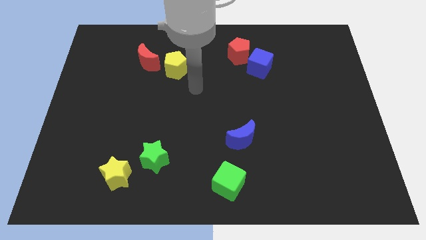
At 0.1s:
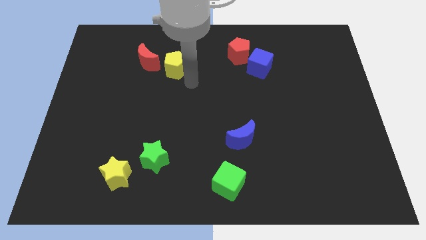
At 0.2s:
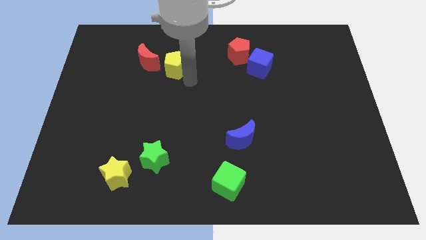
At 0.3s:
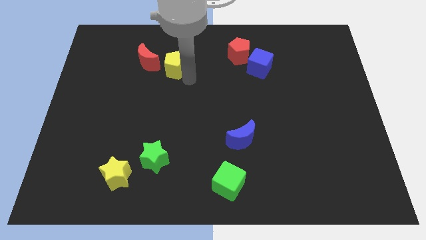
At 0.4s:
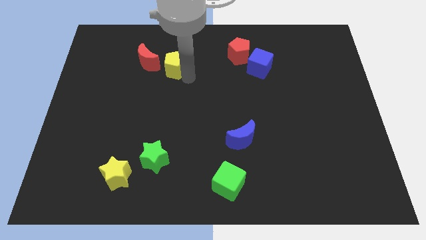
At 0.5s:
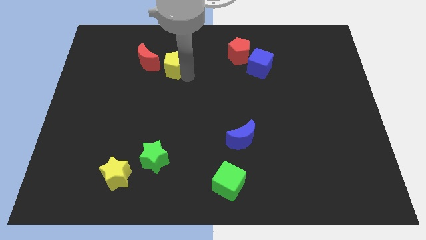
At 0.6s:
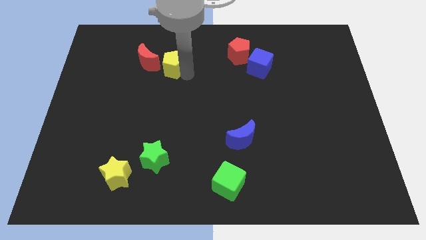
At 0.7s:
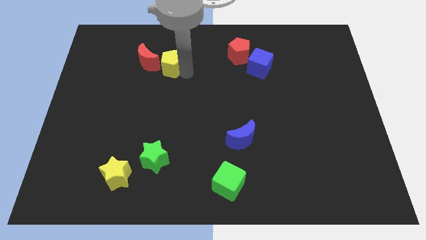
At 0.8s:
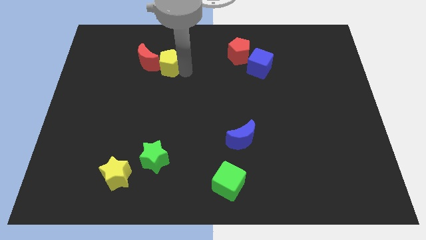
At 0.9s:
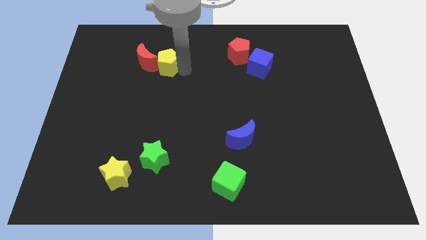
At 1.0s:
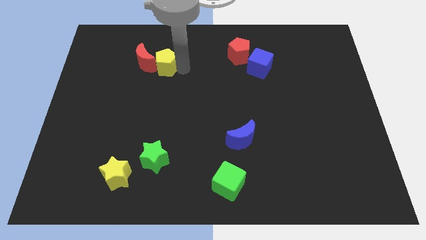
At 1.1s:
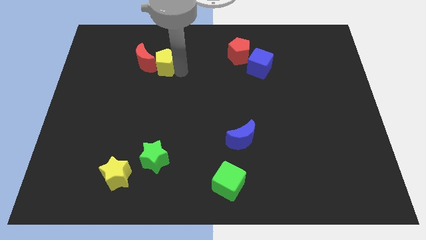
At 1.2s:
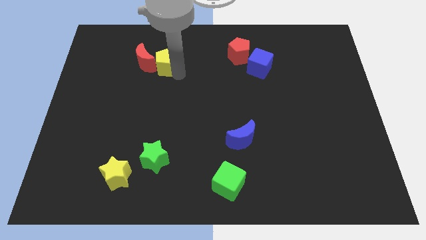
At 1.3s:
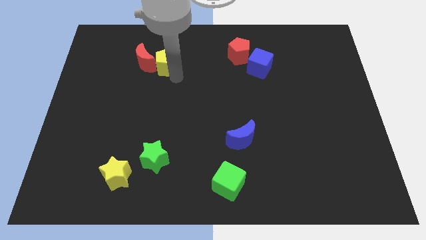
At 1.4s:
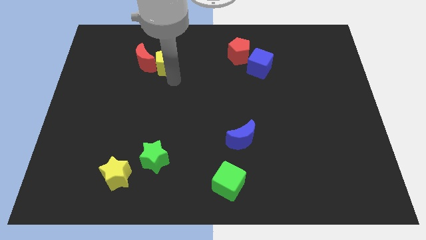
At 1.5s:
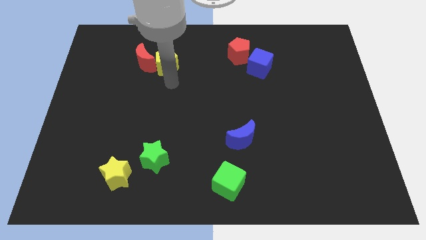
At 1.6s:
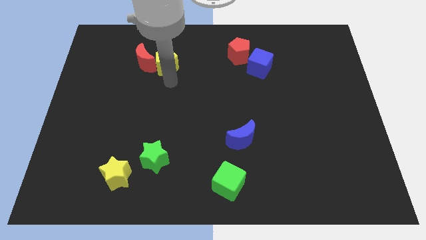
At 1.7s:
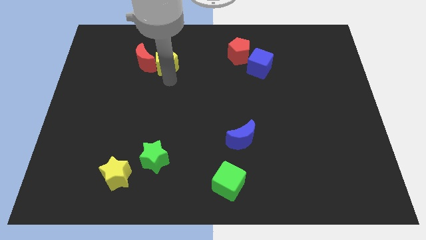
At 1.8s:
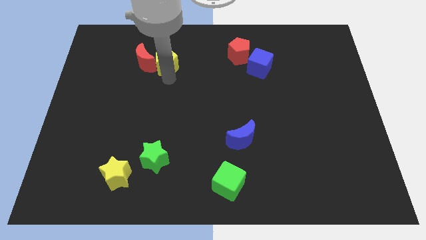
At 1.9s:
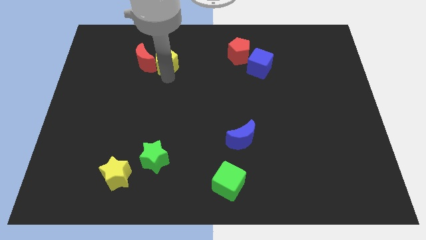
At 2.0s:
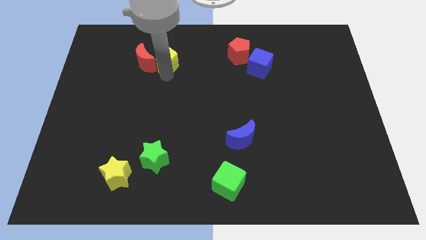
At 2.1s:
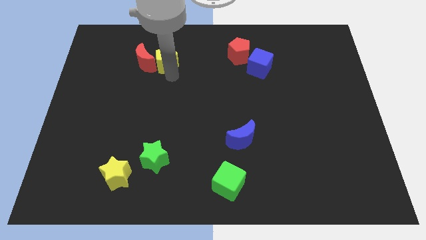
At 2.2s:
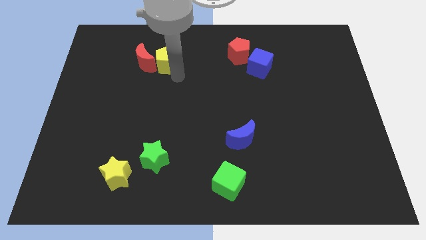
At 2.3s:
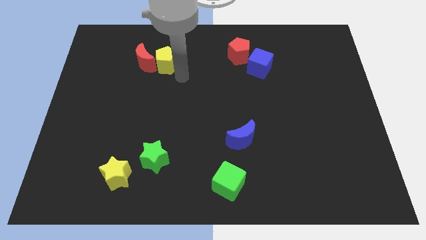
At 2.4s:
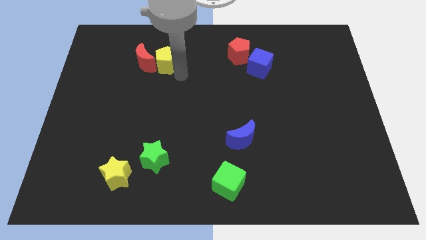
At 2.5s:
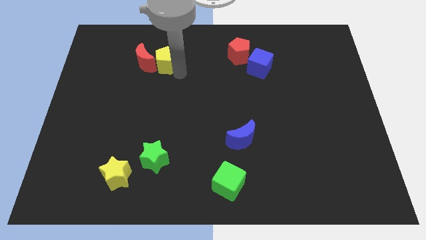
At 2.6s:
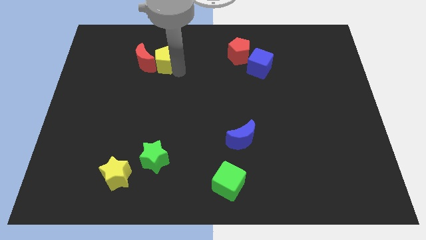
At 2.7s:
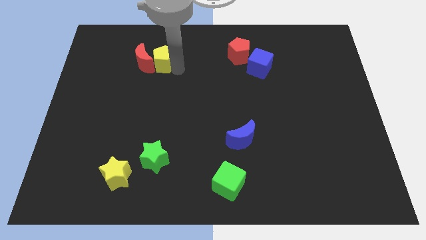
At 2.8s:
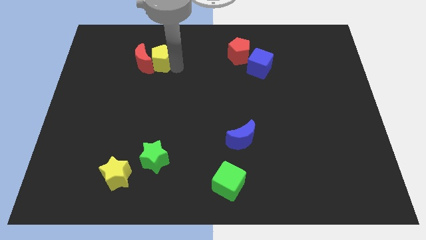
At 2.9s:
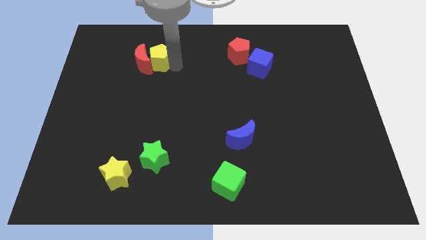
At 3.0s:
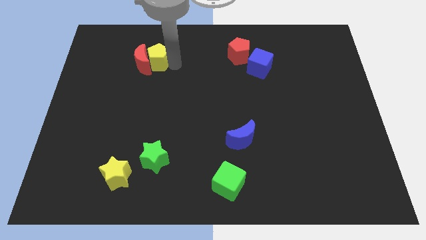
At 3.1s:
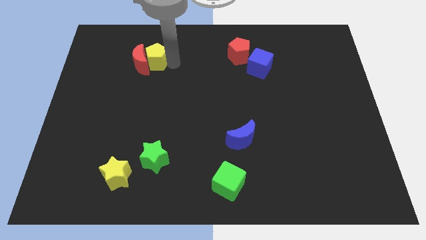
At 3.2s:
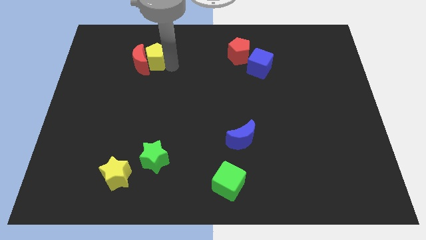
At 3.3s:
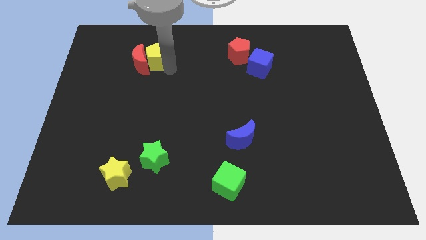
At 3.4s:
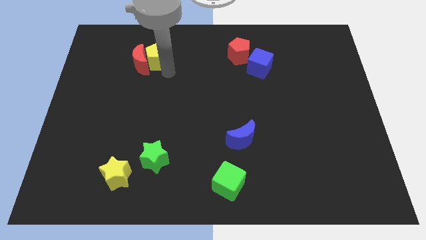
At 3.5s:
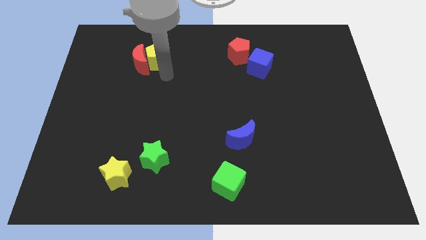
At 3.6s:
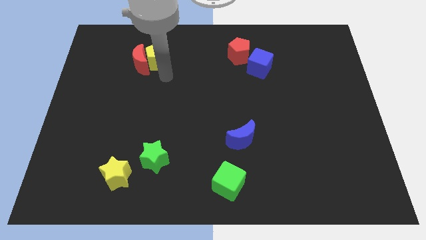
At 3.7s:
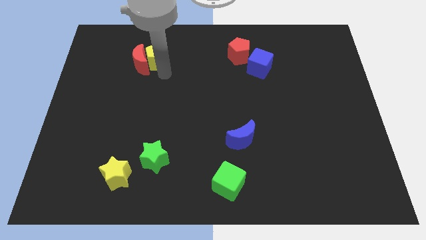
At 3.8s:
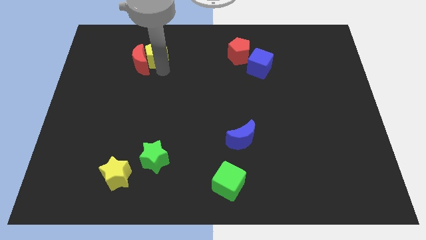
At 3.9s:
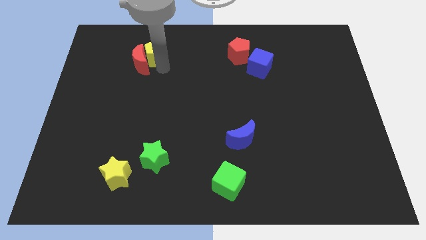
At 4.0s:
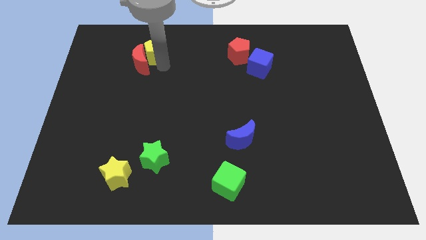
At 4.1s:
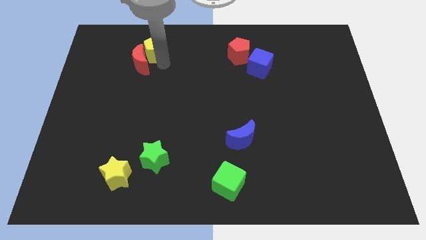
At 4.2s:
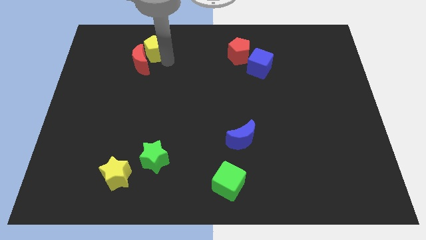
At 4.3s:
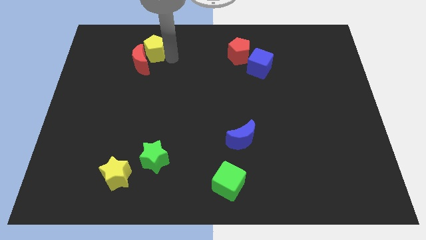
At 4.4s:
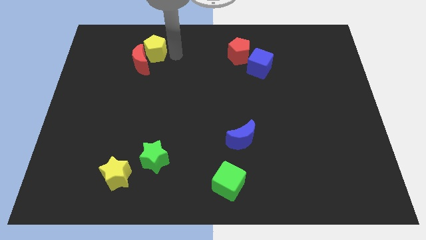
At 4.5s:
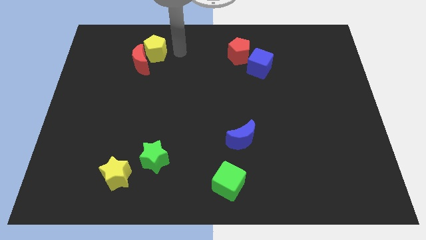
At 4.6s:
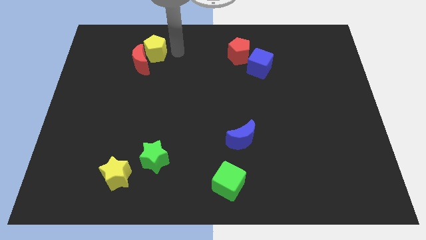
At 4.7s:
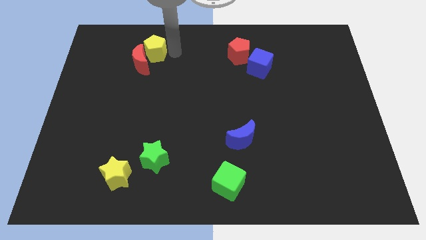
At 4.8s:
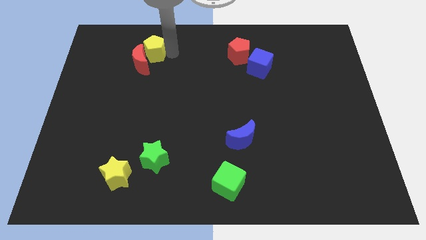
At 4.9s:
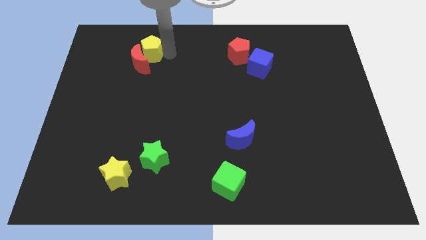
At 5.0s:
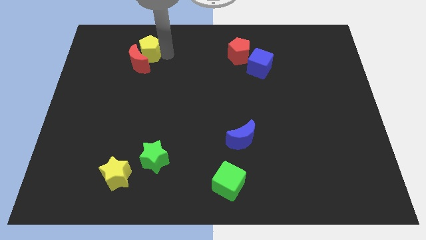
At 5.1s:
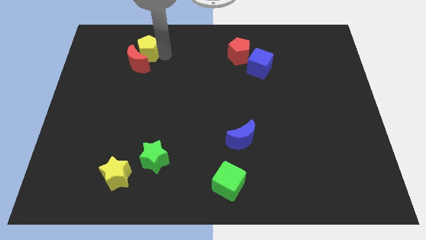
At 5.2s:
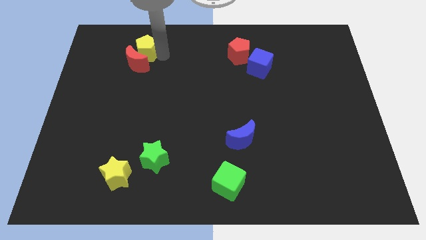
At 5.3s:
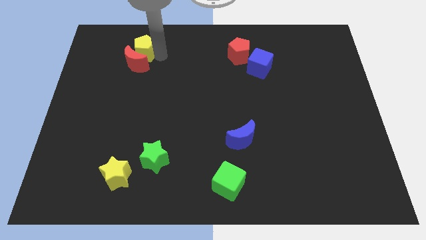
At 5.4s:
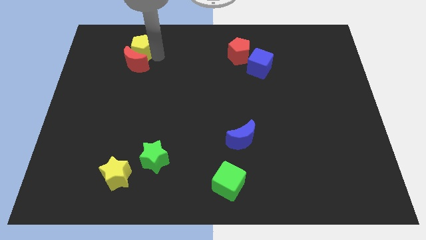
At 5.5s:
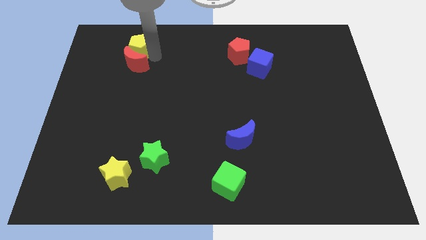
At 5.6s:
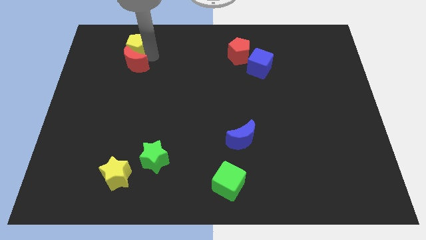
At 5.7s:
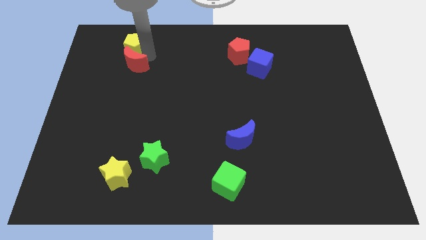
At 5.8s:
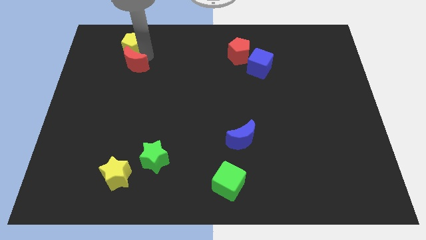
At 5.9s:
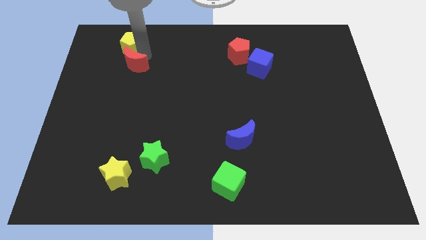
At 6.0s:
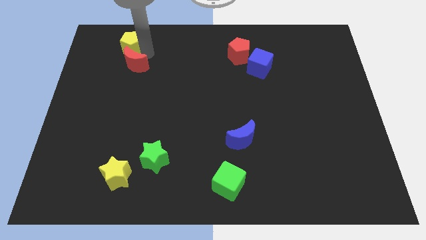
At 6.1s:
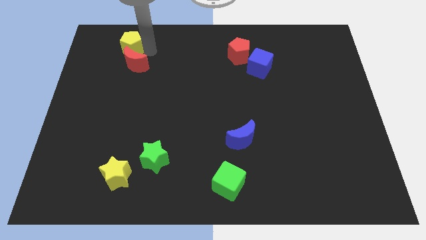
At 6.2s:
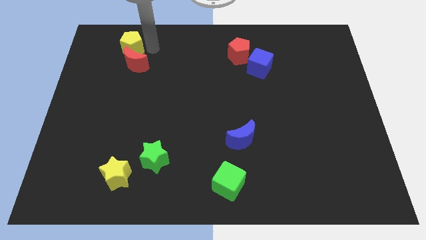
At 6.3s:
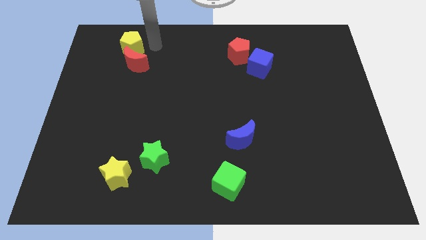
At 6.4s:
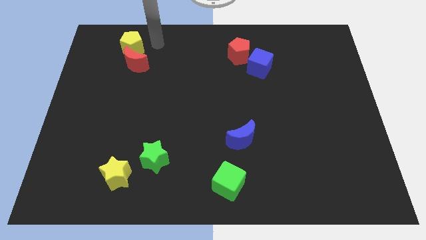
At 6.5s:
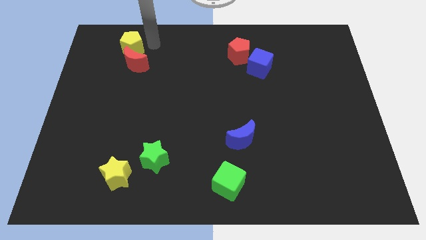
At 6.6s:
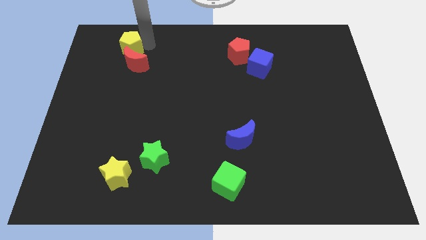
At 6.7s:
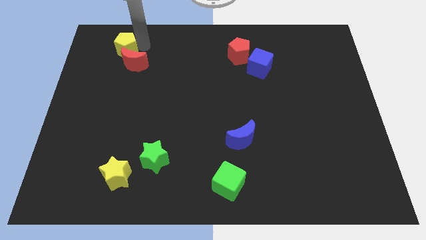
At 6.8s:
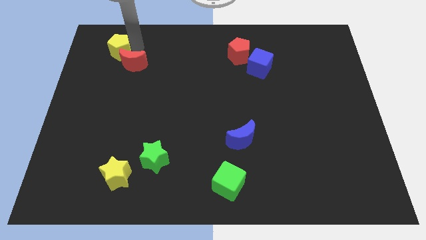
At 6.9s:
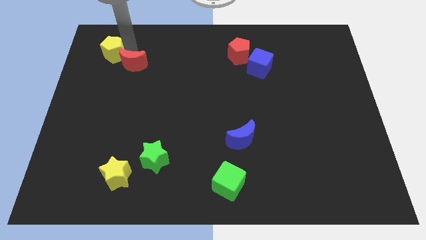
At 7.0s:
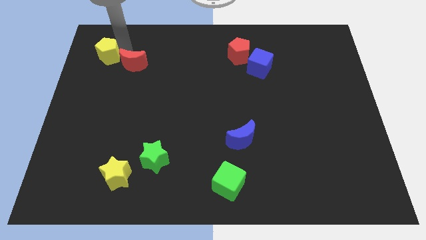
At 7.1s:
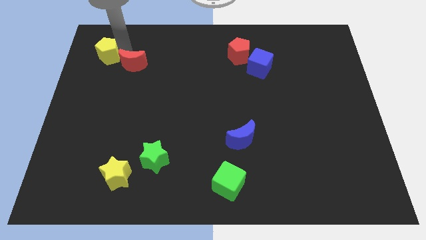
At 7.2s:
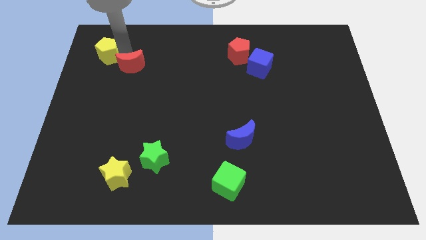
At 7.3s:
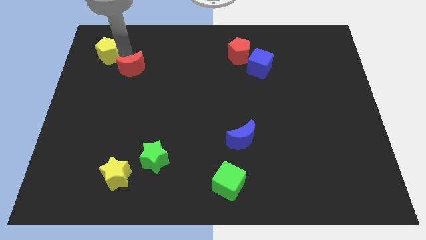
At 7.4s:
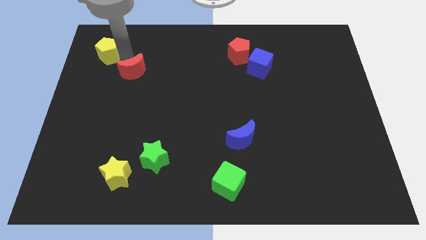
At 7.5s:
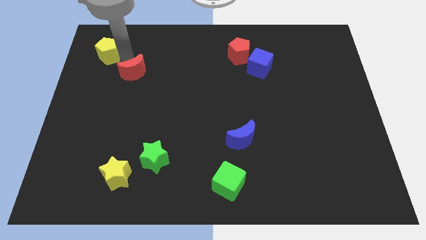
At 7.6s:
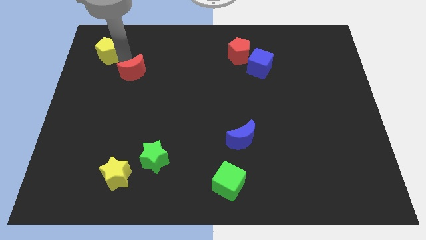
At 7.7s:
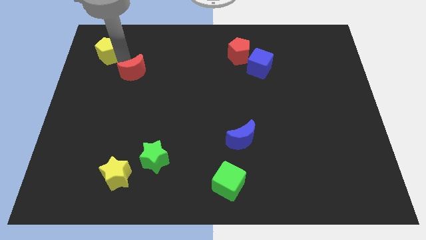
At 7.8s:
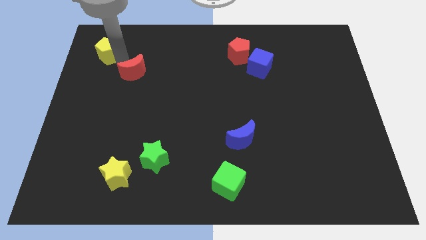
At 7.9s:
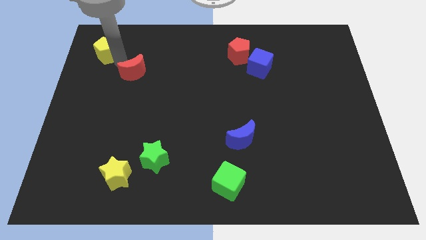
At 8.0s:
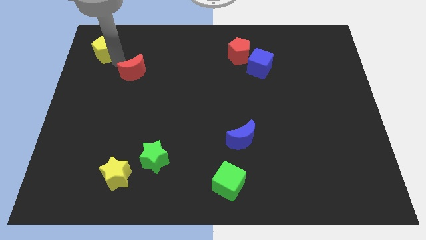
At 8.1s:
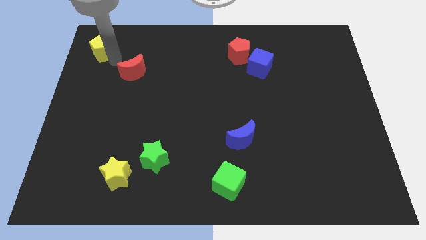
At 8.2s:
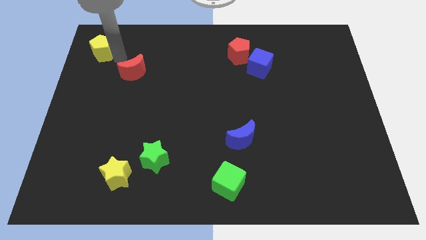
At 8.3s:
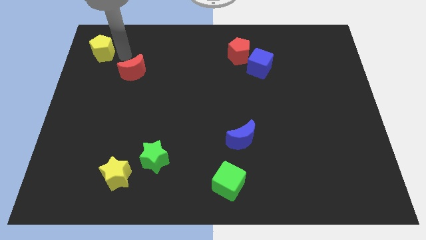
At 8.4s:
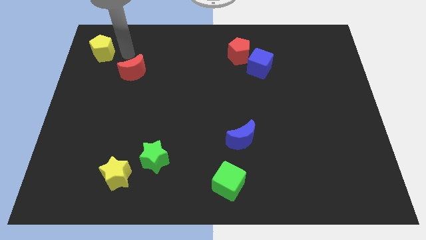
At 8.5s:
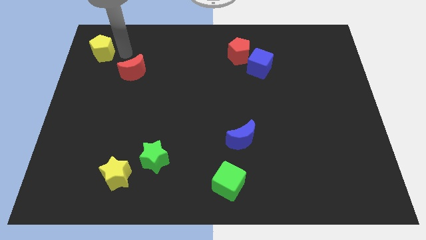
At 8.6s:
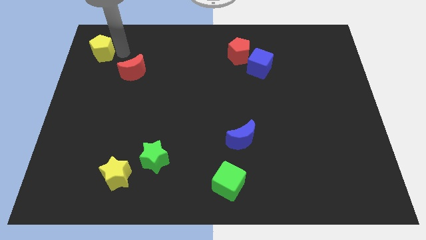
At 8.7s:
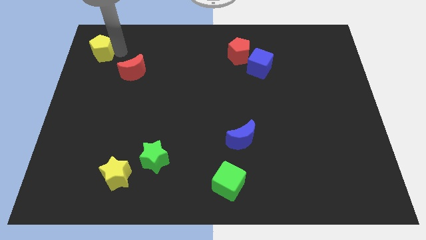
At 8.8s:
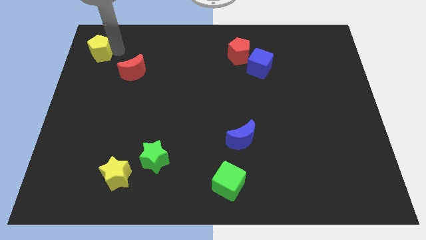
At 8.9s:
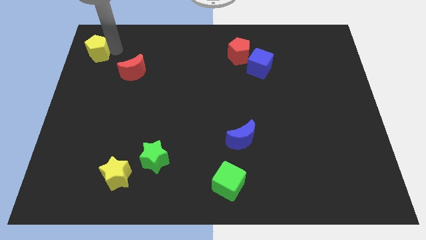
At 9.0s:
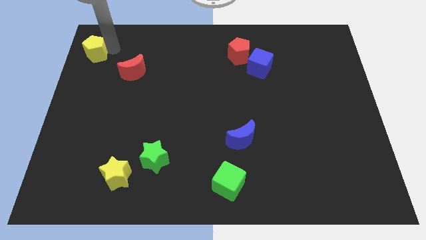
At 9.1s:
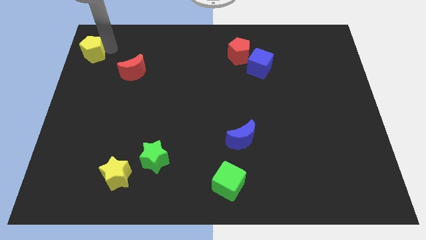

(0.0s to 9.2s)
move the yellow pentagon to the top left
